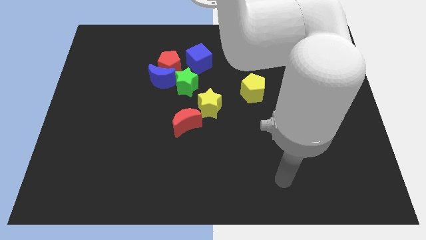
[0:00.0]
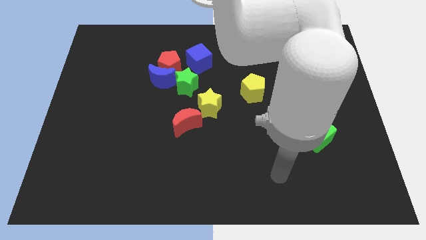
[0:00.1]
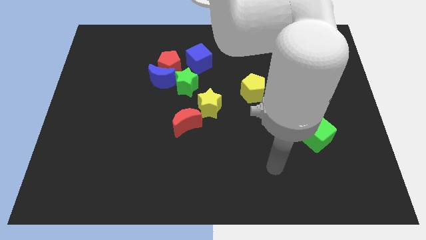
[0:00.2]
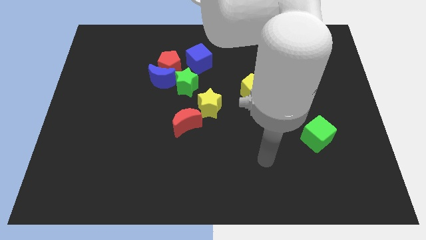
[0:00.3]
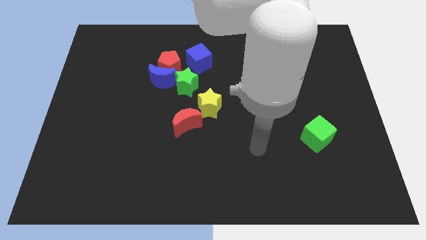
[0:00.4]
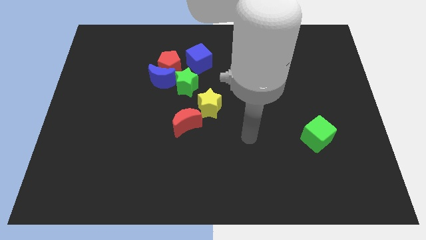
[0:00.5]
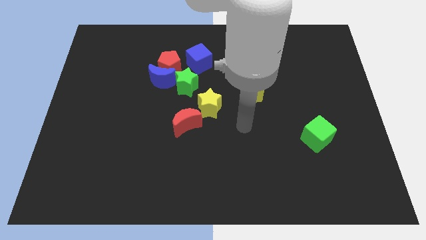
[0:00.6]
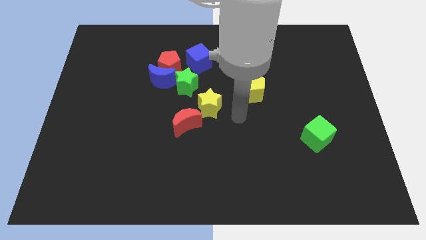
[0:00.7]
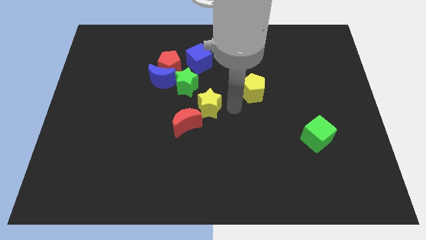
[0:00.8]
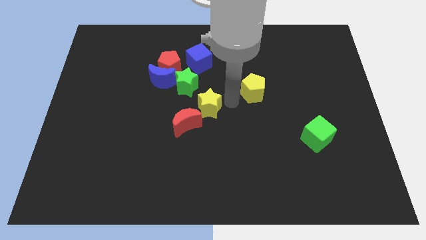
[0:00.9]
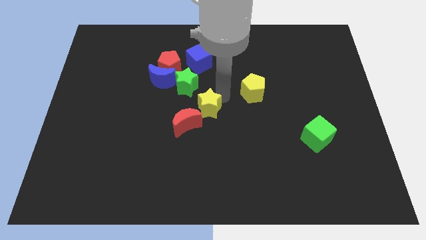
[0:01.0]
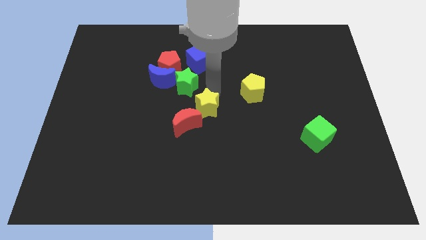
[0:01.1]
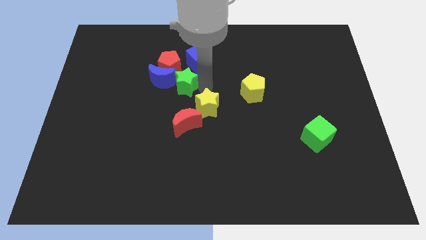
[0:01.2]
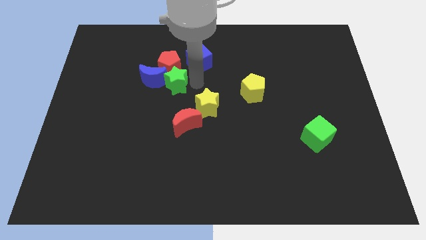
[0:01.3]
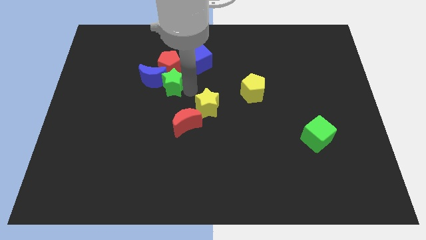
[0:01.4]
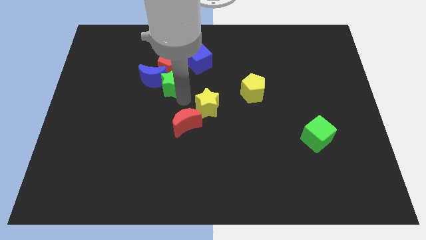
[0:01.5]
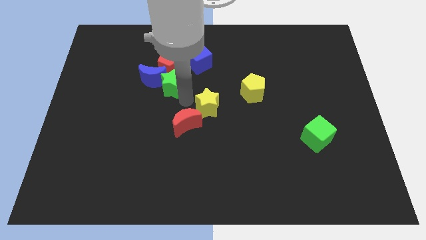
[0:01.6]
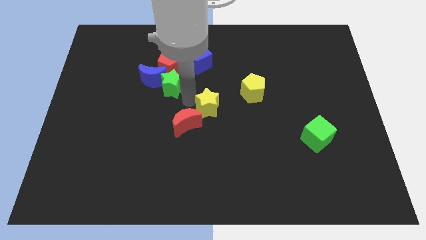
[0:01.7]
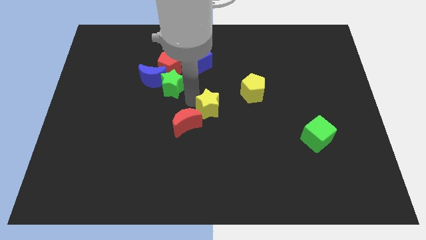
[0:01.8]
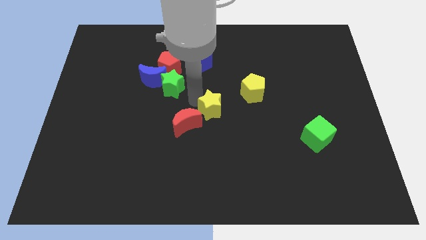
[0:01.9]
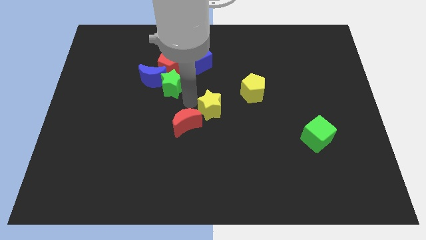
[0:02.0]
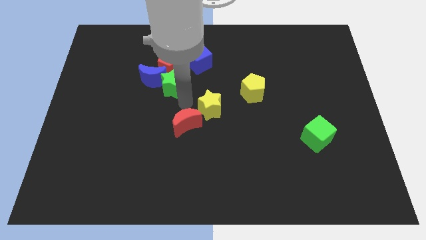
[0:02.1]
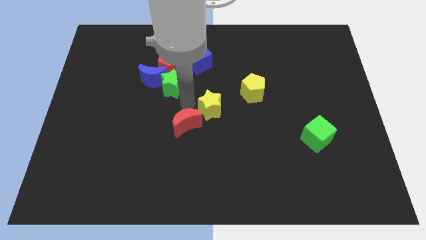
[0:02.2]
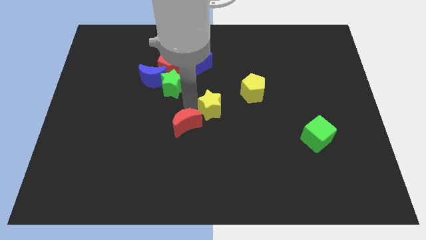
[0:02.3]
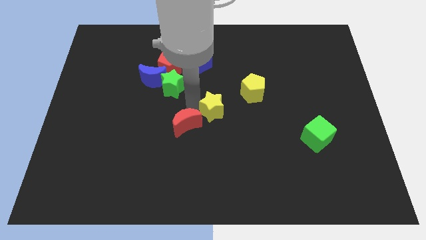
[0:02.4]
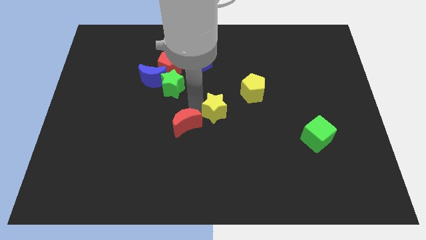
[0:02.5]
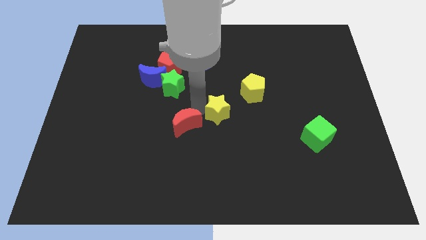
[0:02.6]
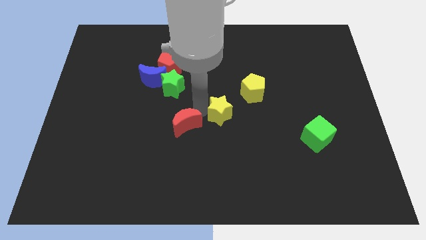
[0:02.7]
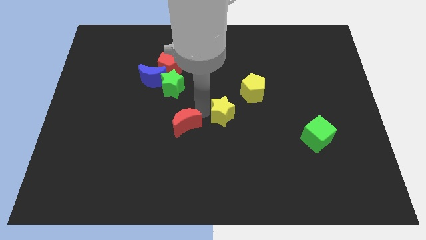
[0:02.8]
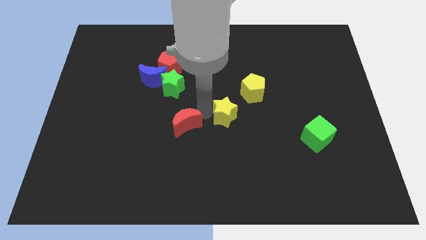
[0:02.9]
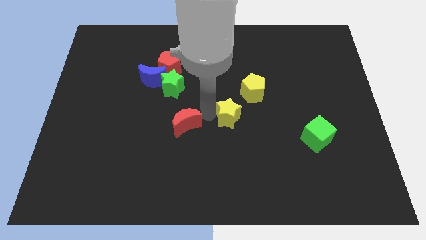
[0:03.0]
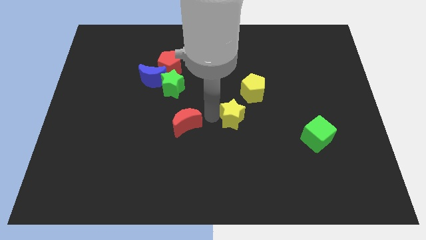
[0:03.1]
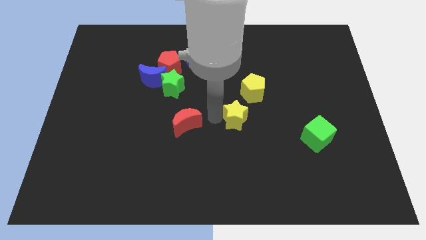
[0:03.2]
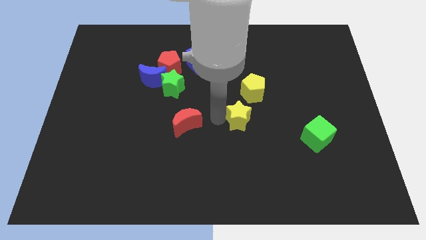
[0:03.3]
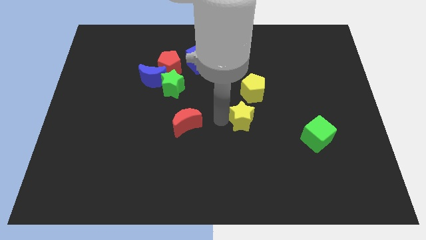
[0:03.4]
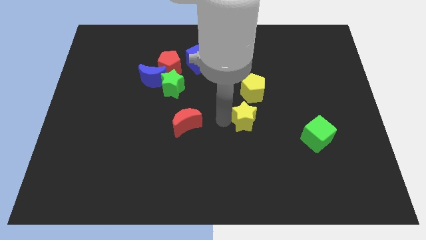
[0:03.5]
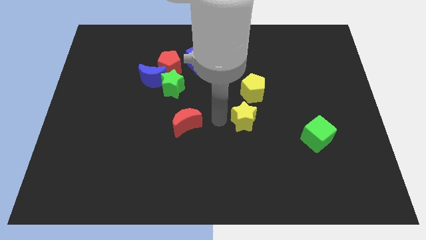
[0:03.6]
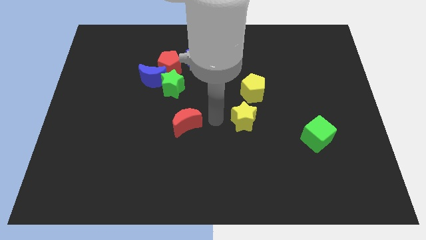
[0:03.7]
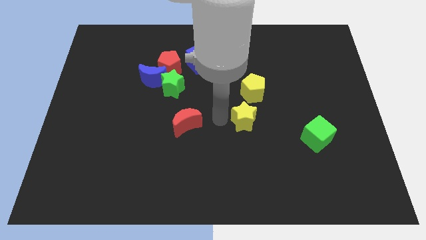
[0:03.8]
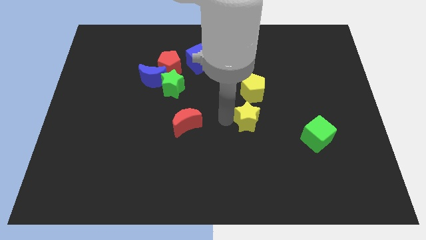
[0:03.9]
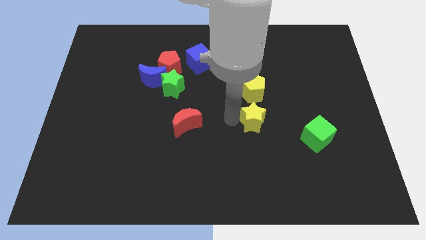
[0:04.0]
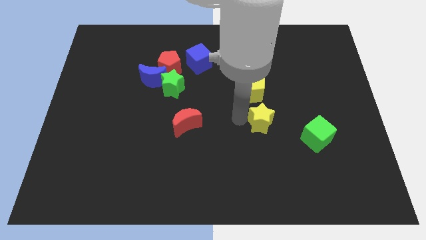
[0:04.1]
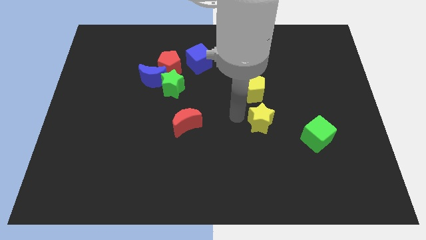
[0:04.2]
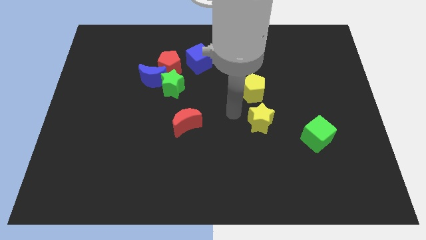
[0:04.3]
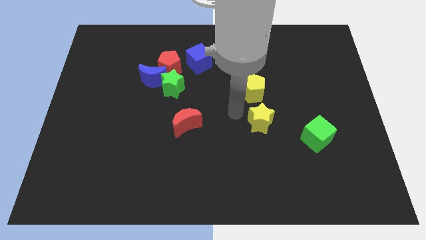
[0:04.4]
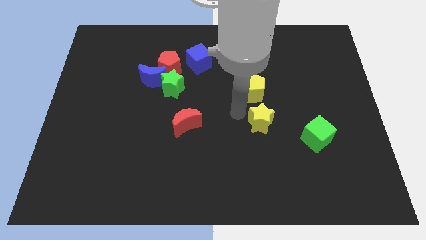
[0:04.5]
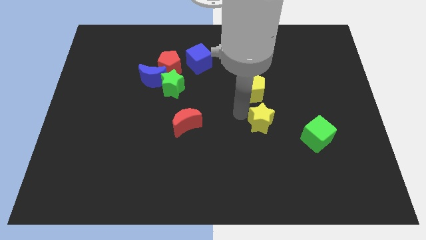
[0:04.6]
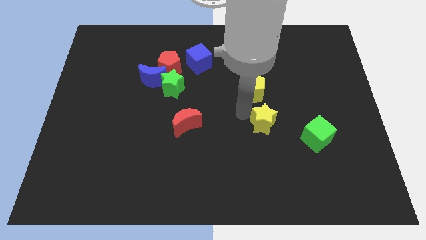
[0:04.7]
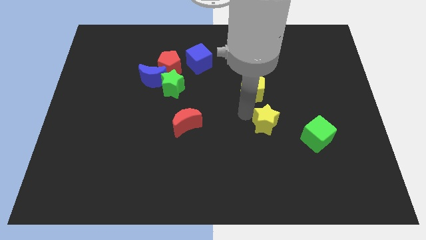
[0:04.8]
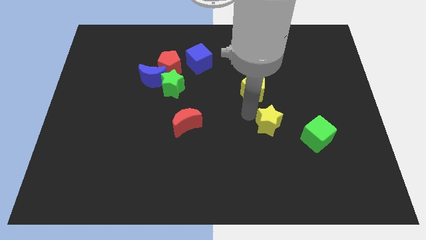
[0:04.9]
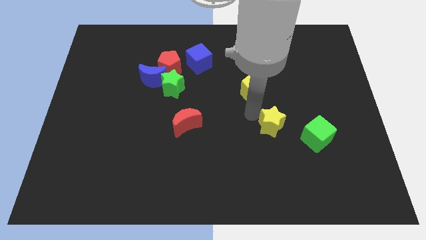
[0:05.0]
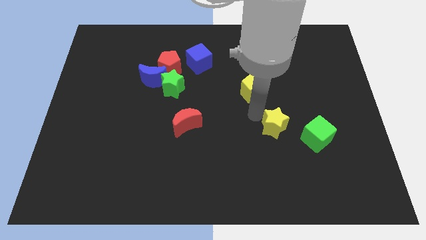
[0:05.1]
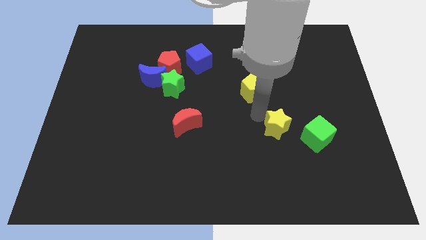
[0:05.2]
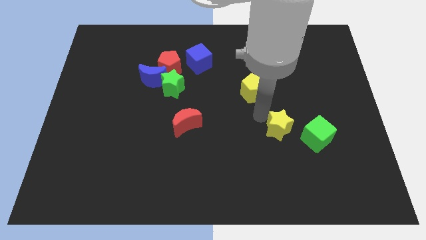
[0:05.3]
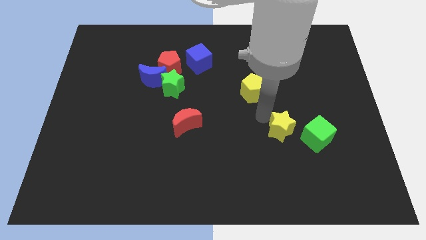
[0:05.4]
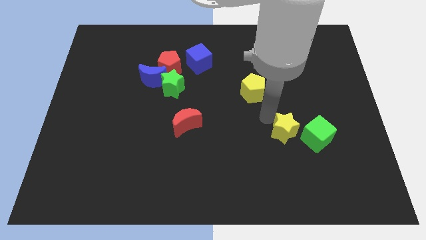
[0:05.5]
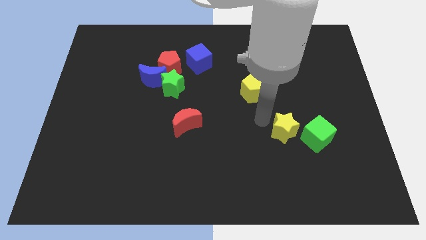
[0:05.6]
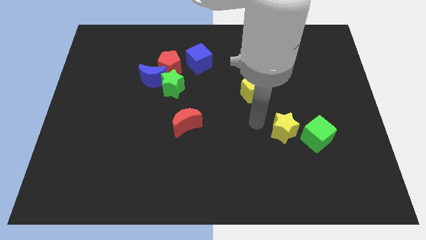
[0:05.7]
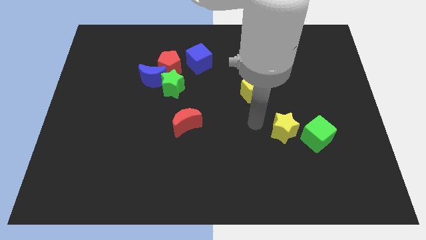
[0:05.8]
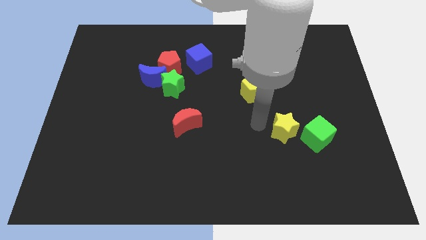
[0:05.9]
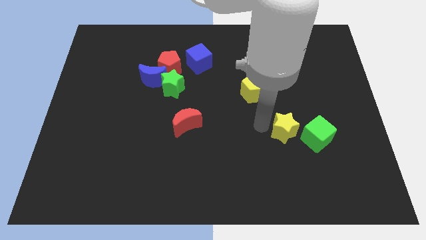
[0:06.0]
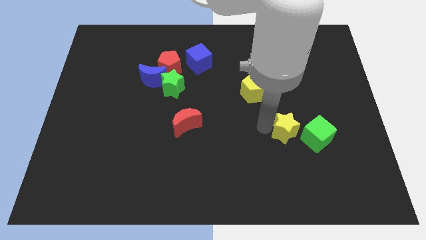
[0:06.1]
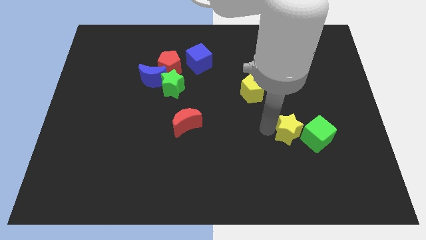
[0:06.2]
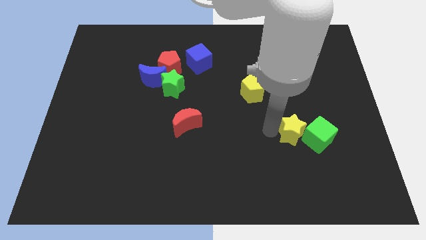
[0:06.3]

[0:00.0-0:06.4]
put the yellow star next to the green cube
